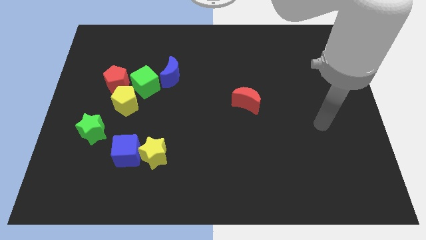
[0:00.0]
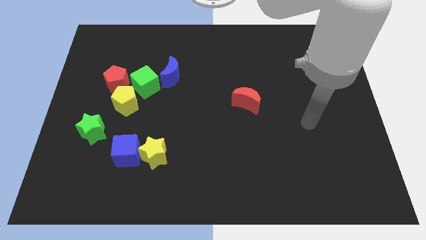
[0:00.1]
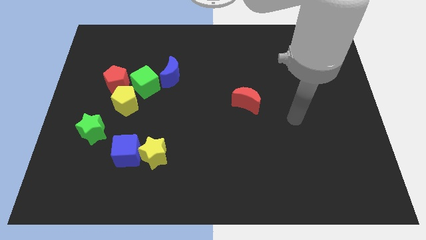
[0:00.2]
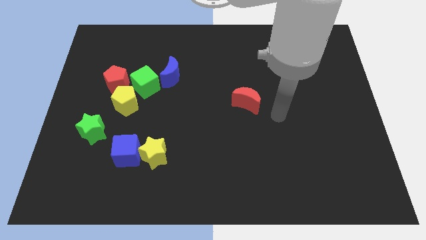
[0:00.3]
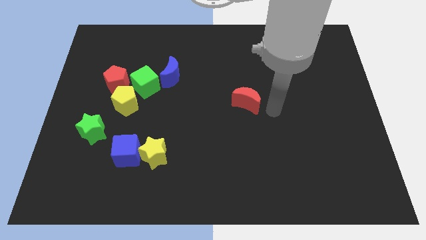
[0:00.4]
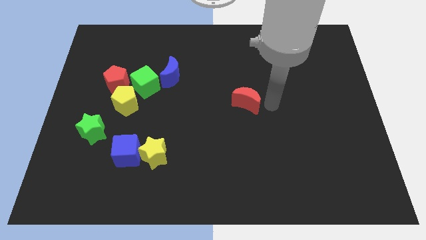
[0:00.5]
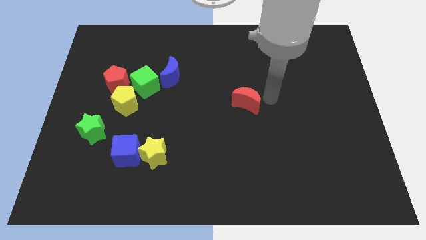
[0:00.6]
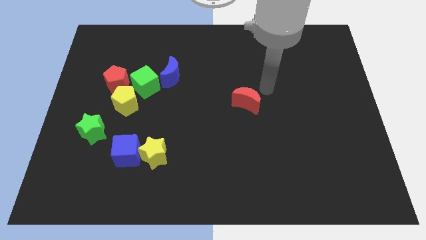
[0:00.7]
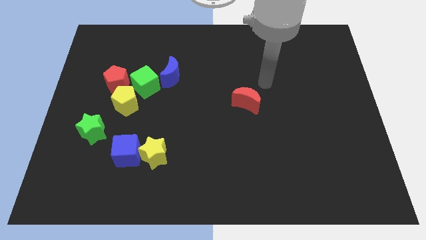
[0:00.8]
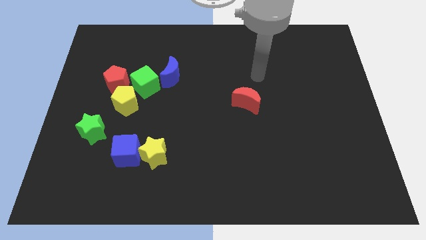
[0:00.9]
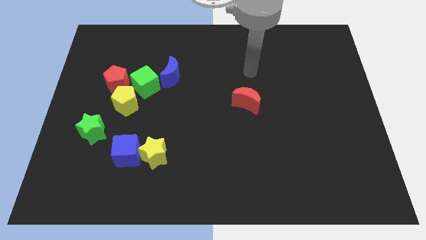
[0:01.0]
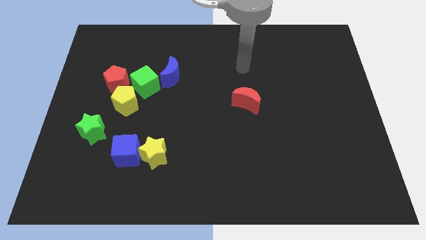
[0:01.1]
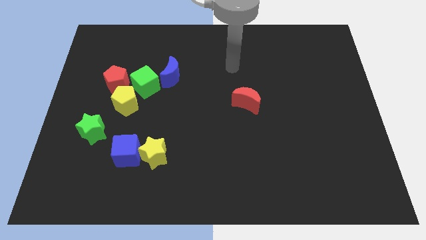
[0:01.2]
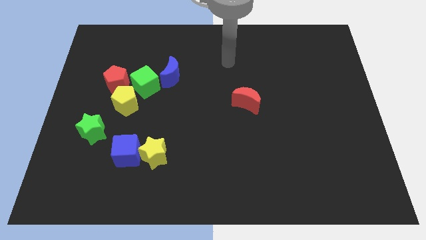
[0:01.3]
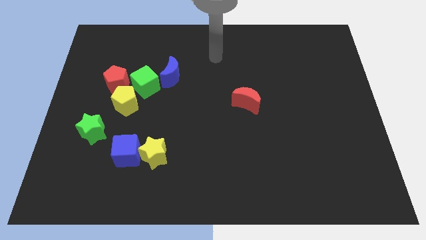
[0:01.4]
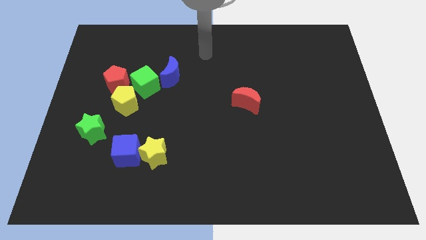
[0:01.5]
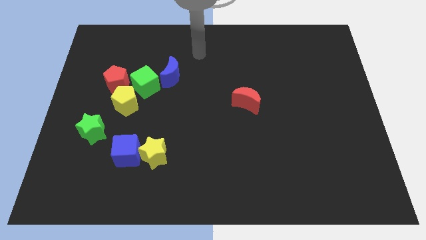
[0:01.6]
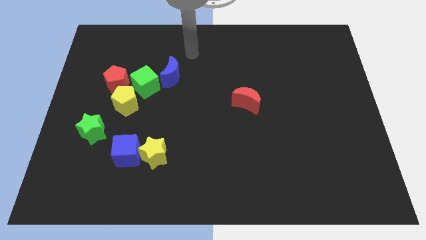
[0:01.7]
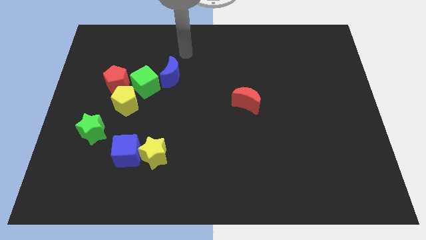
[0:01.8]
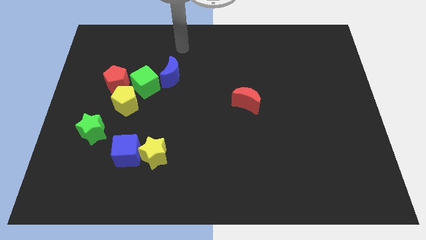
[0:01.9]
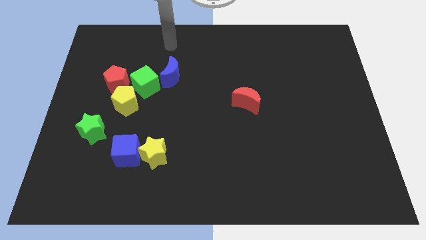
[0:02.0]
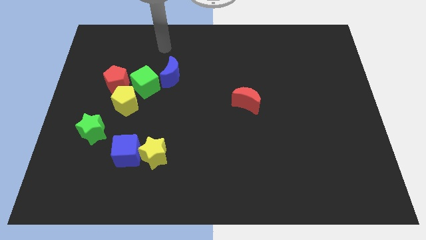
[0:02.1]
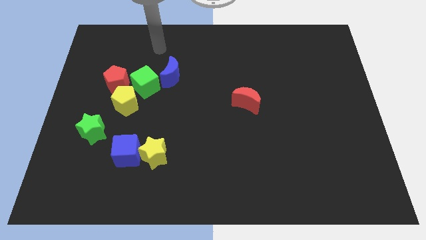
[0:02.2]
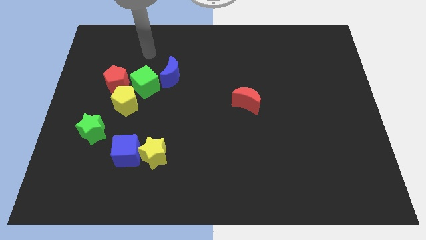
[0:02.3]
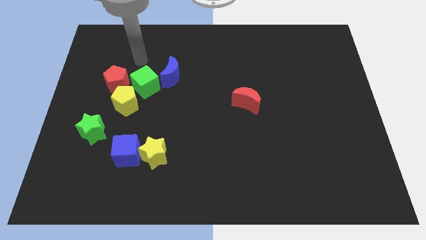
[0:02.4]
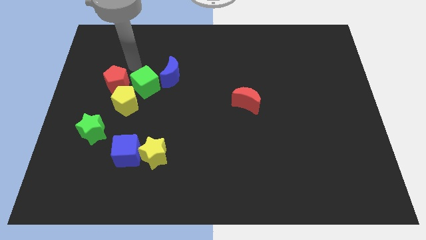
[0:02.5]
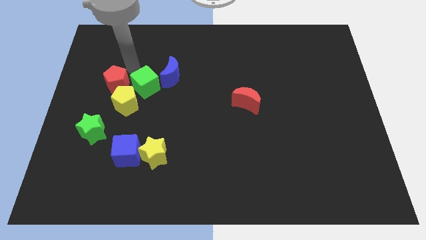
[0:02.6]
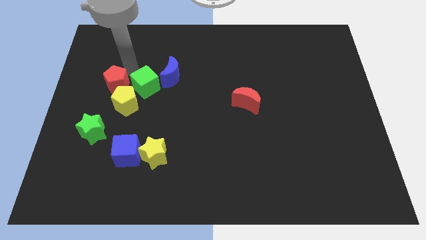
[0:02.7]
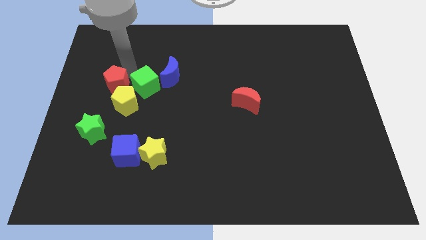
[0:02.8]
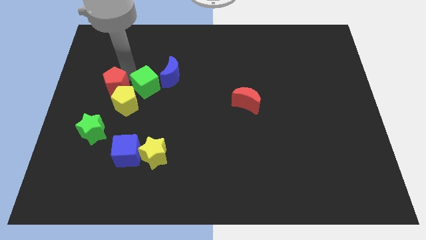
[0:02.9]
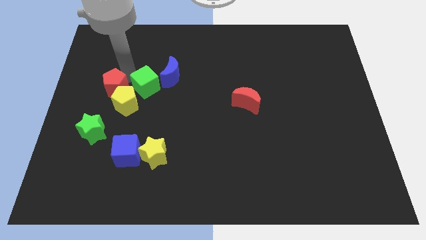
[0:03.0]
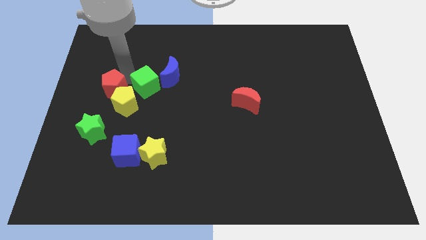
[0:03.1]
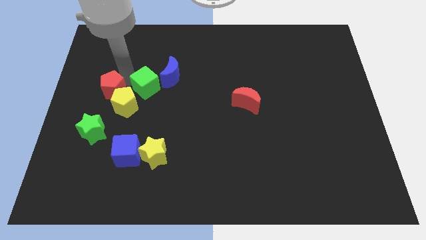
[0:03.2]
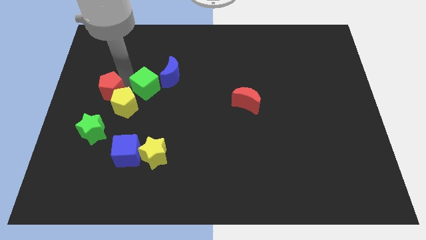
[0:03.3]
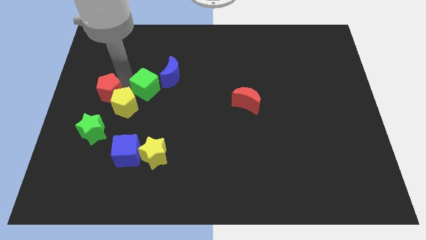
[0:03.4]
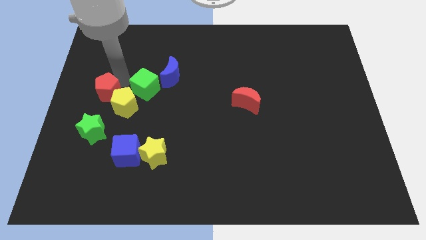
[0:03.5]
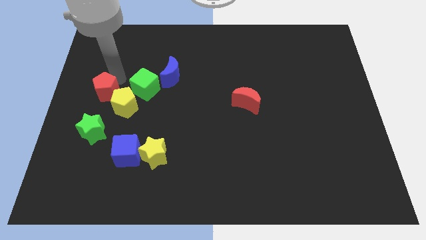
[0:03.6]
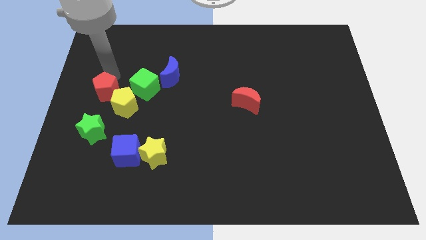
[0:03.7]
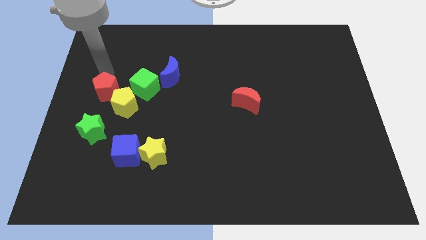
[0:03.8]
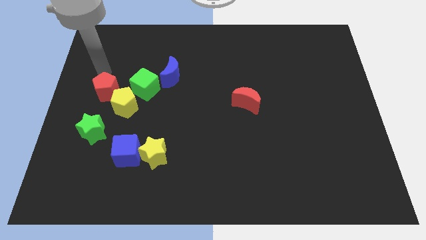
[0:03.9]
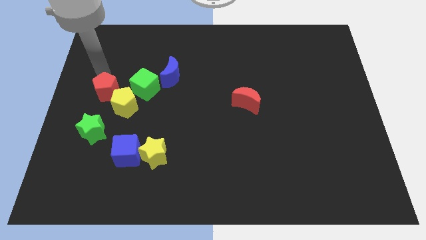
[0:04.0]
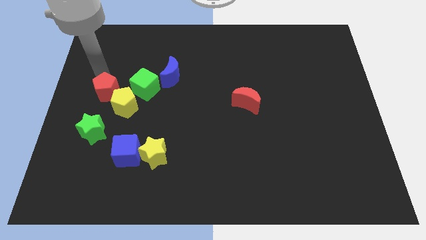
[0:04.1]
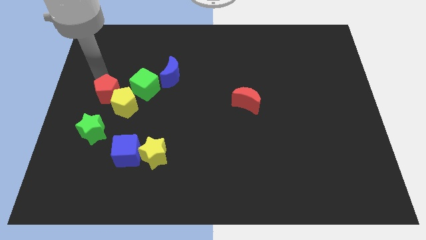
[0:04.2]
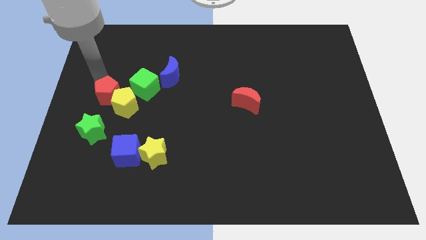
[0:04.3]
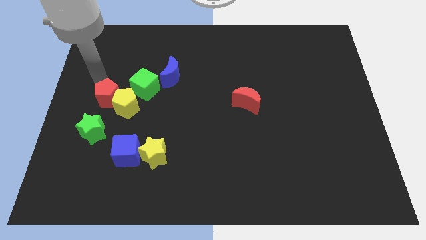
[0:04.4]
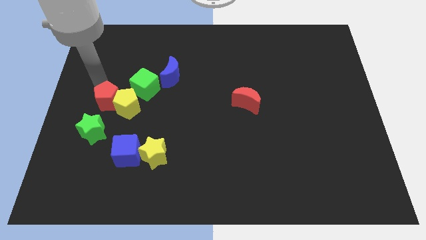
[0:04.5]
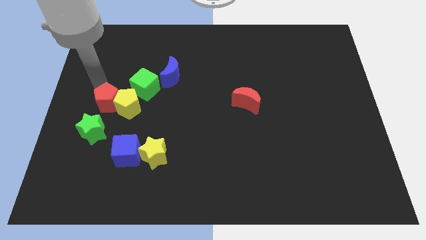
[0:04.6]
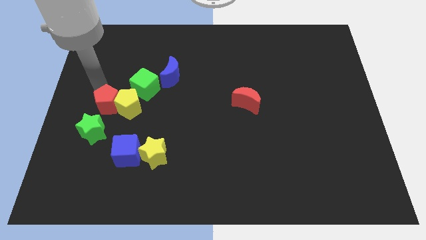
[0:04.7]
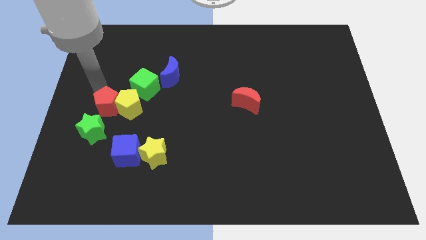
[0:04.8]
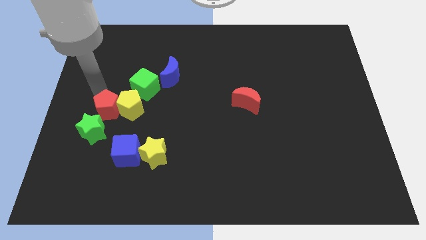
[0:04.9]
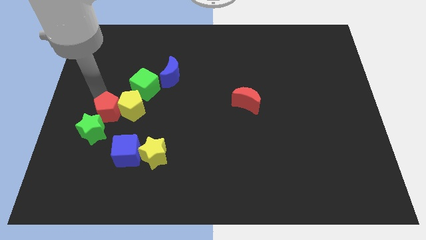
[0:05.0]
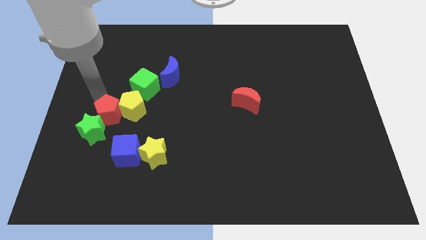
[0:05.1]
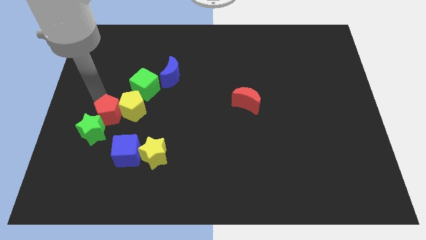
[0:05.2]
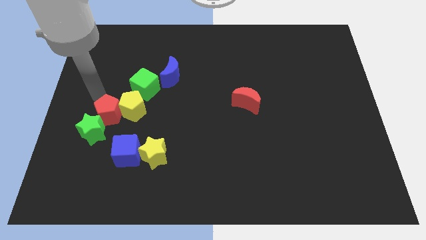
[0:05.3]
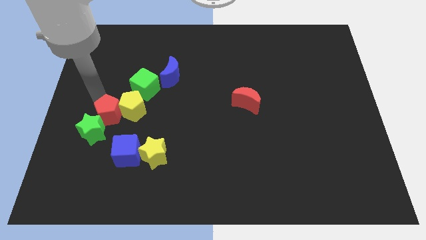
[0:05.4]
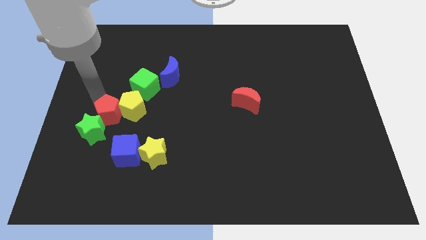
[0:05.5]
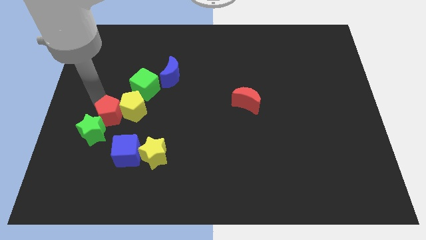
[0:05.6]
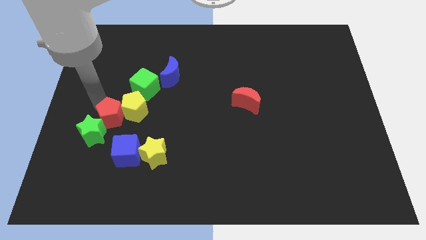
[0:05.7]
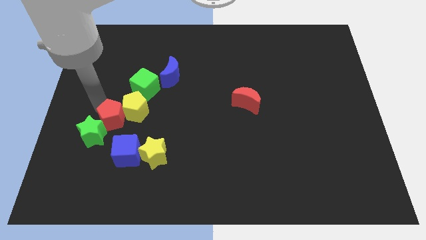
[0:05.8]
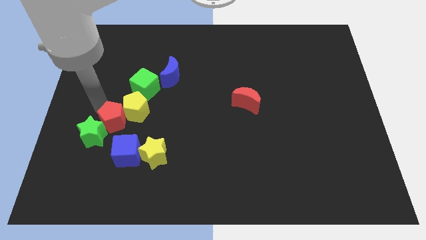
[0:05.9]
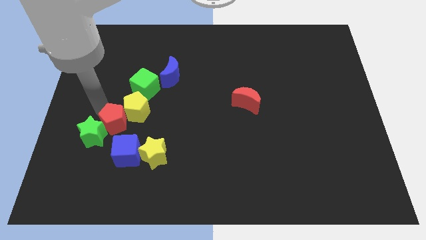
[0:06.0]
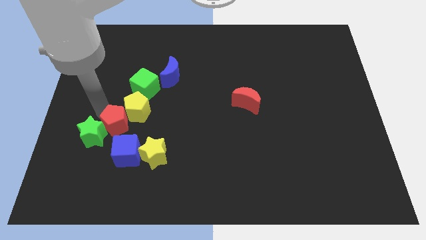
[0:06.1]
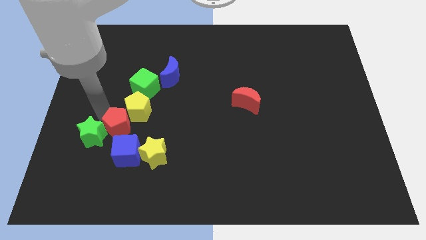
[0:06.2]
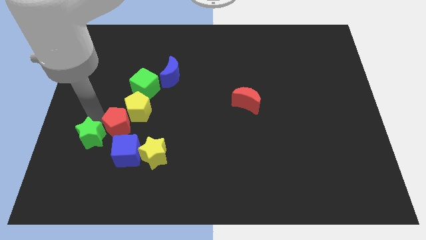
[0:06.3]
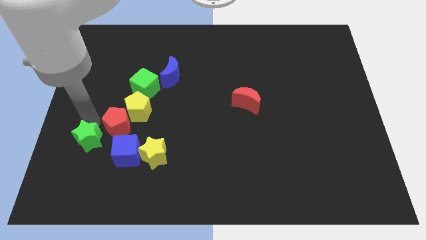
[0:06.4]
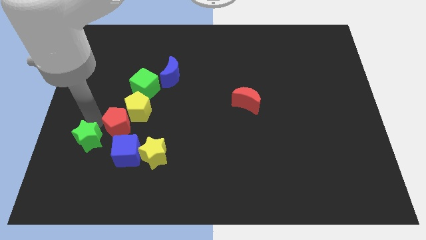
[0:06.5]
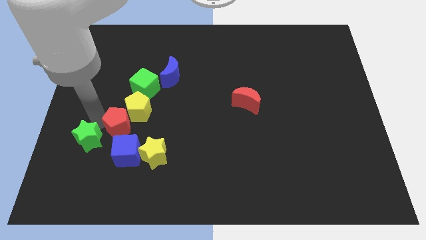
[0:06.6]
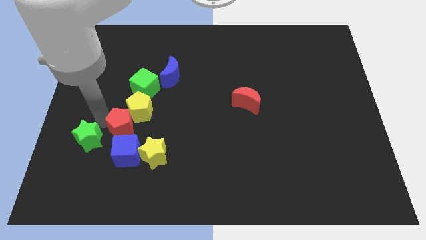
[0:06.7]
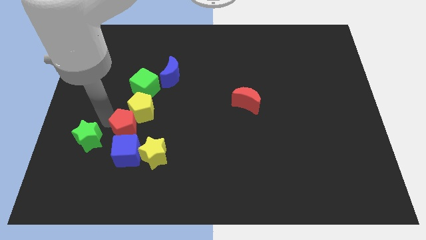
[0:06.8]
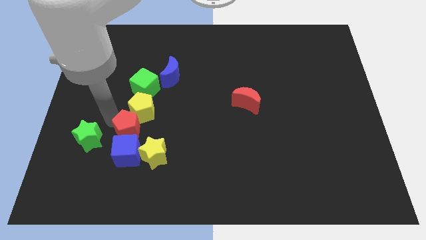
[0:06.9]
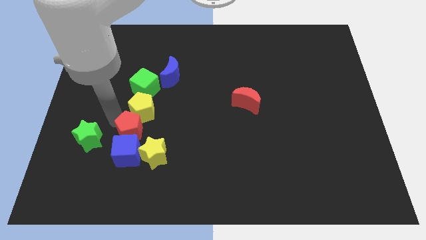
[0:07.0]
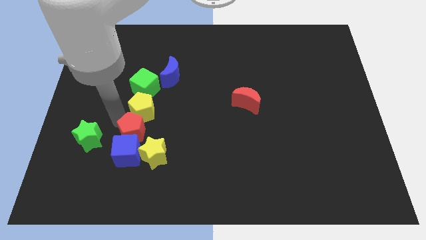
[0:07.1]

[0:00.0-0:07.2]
slide the red pentagon to the bottom right of the yellow pentagon

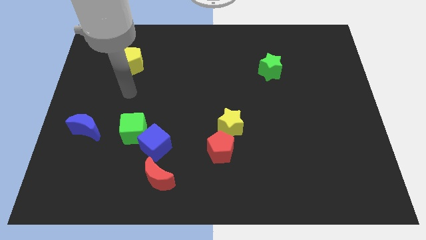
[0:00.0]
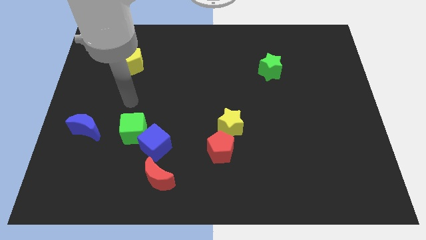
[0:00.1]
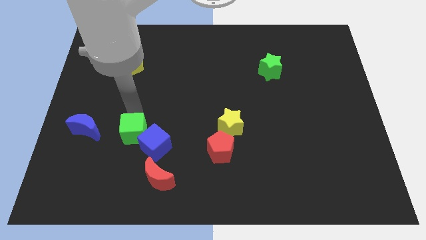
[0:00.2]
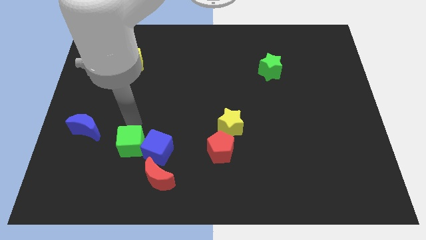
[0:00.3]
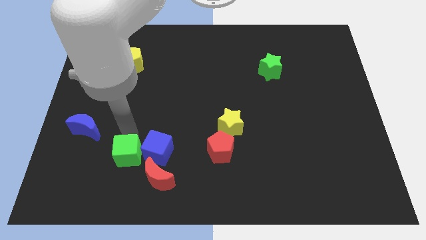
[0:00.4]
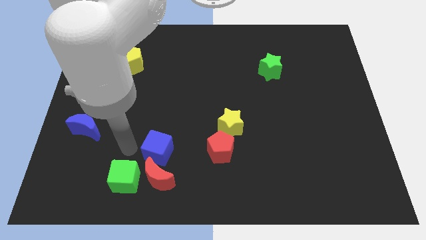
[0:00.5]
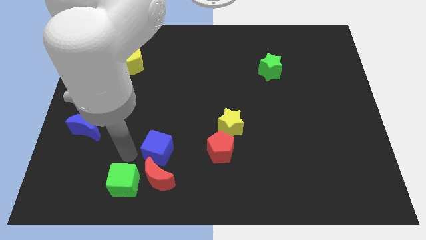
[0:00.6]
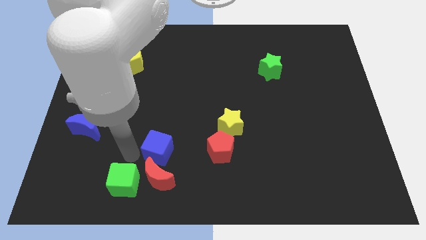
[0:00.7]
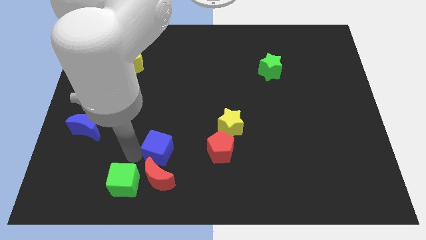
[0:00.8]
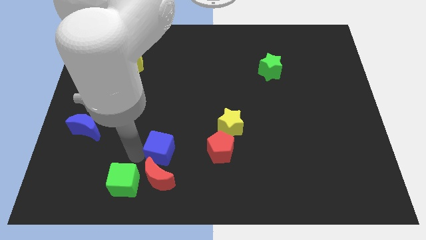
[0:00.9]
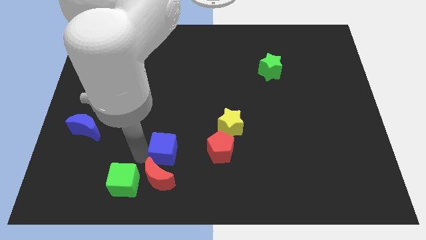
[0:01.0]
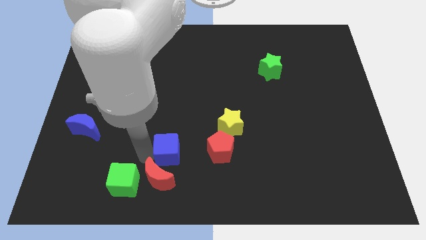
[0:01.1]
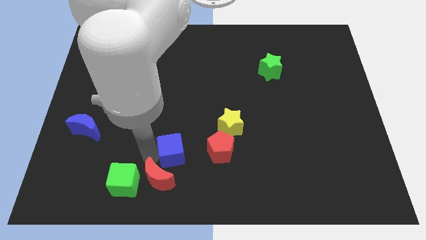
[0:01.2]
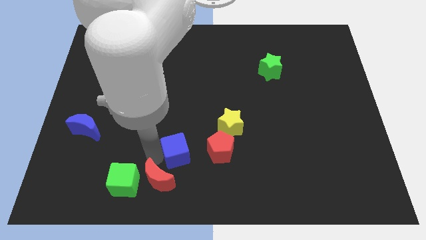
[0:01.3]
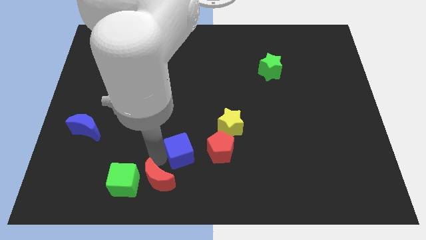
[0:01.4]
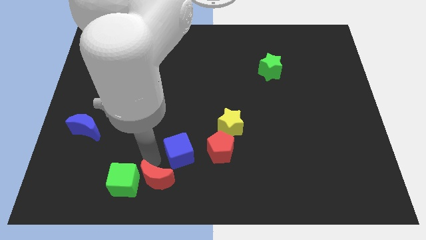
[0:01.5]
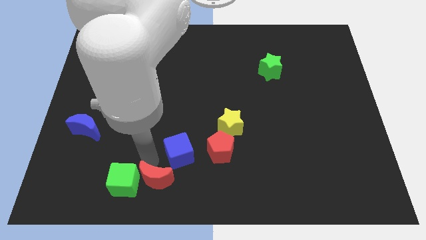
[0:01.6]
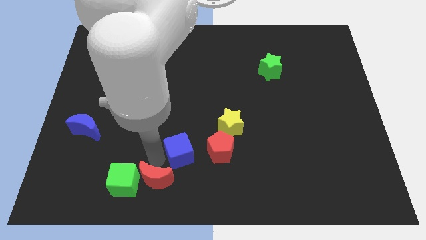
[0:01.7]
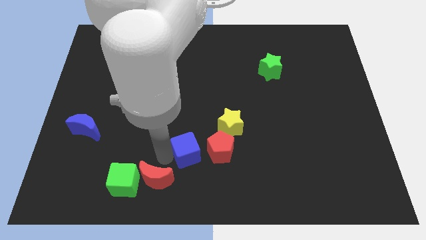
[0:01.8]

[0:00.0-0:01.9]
put the blue cube to the bottom left of the yellow star
